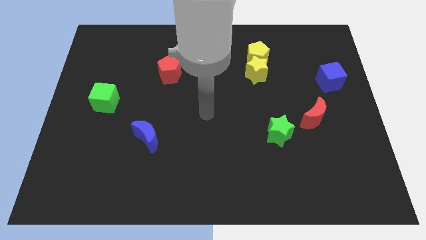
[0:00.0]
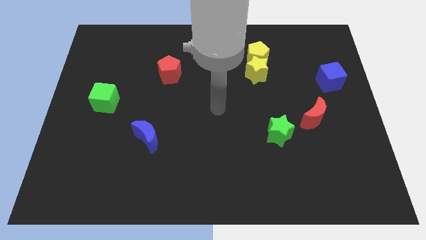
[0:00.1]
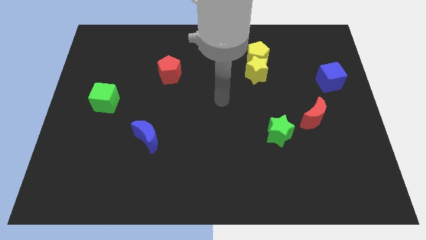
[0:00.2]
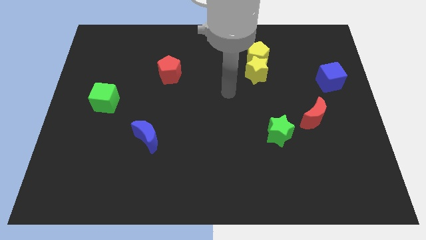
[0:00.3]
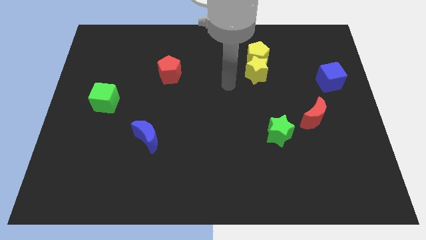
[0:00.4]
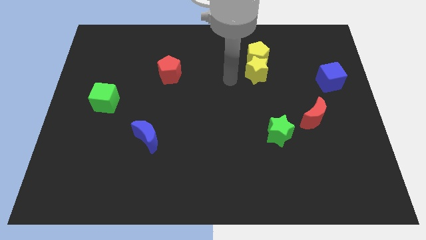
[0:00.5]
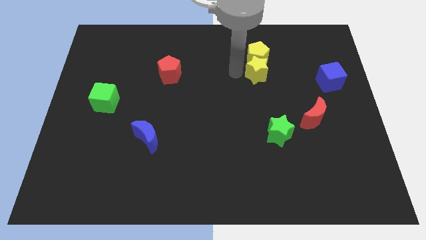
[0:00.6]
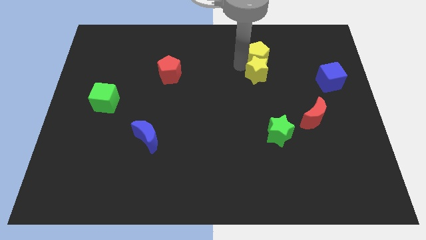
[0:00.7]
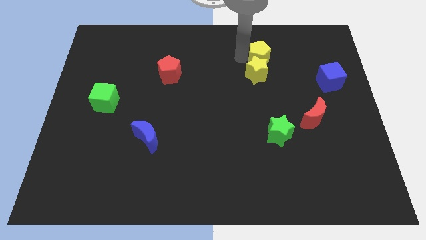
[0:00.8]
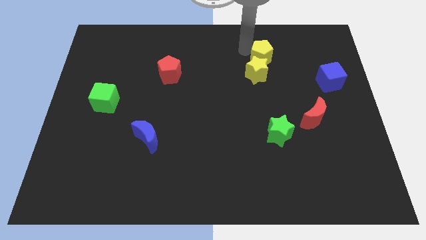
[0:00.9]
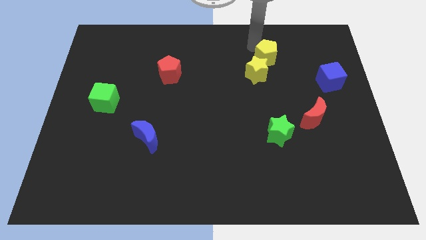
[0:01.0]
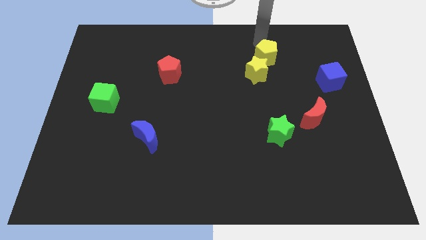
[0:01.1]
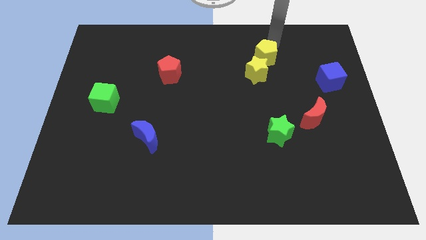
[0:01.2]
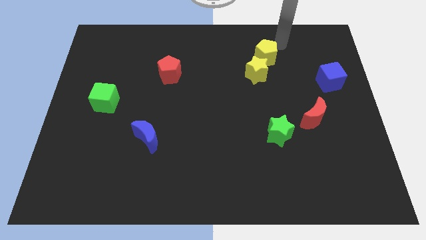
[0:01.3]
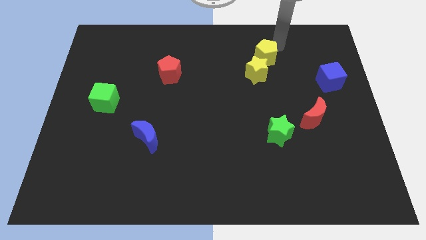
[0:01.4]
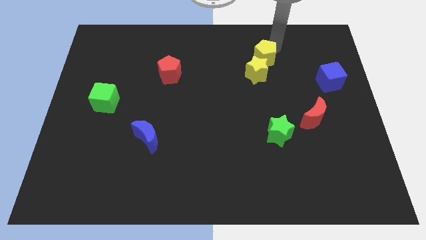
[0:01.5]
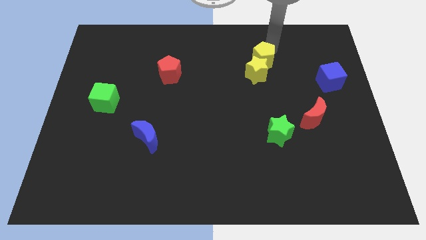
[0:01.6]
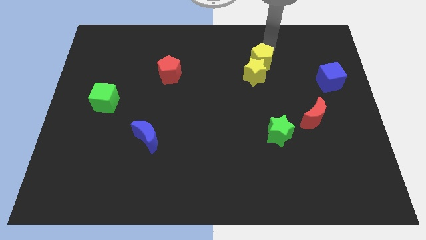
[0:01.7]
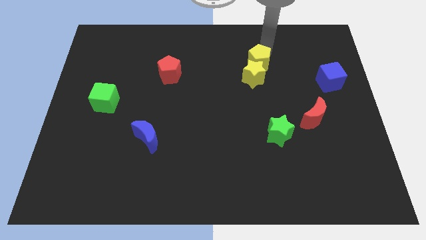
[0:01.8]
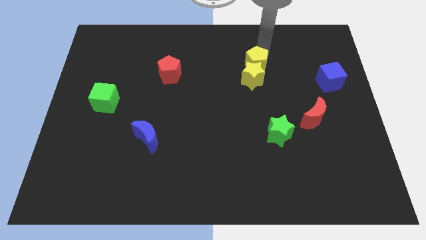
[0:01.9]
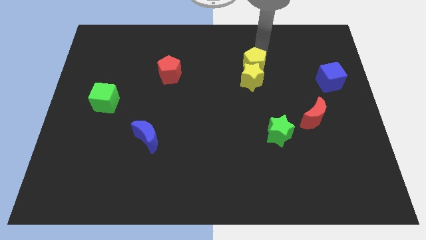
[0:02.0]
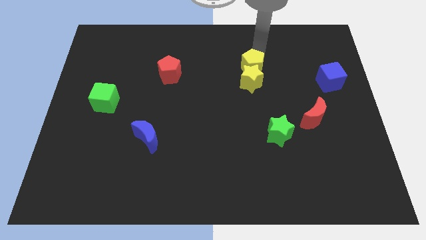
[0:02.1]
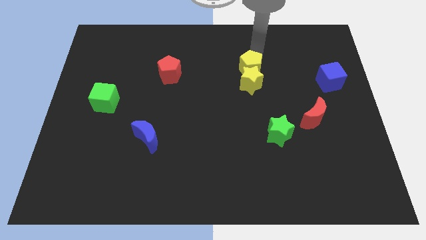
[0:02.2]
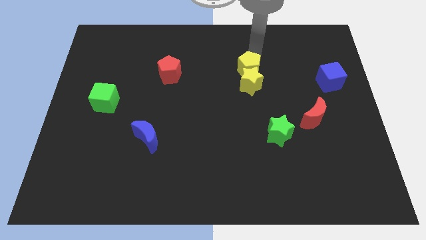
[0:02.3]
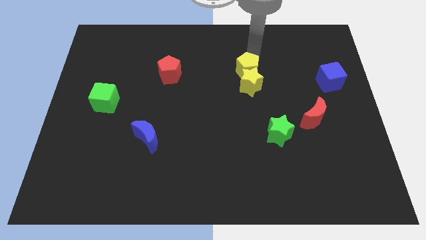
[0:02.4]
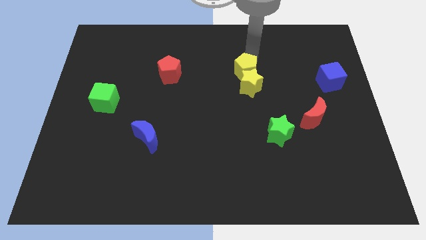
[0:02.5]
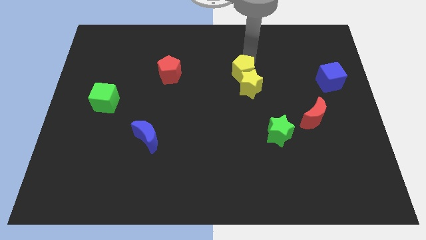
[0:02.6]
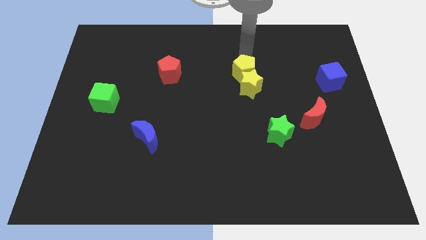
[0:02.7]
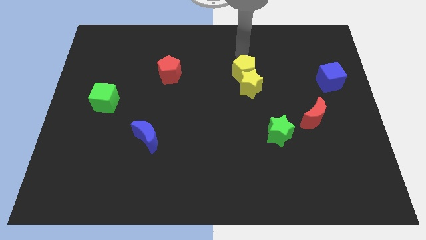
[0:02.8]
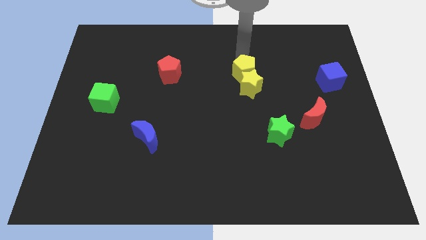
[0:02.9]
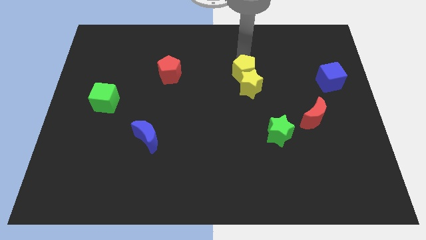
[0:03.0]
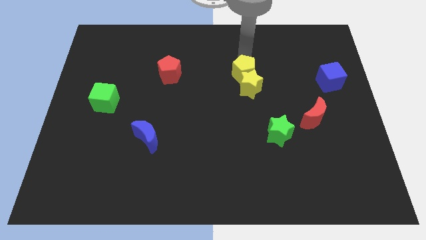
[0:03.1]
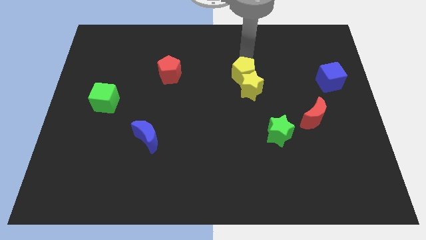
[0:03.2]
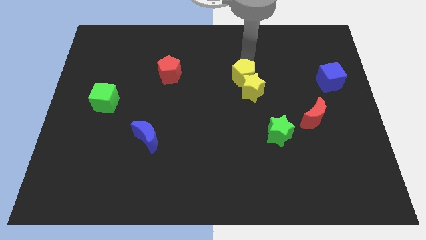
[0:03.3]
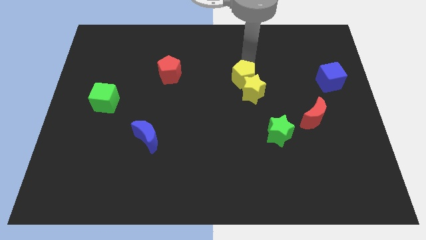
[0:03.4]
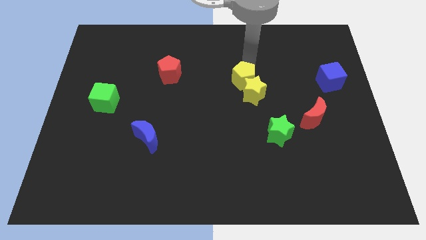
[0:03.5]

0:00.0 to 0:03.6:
push the yellow pentagon downwards a bit

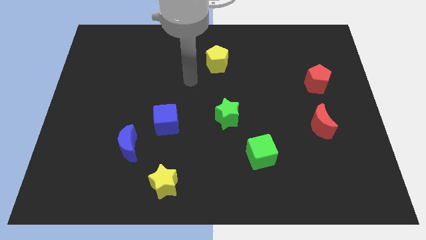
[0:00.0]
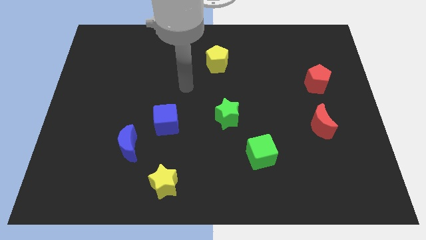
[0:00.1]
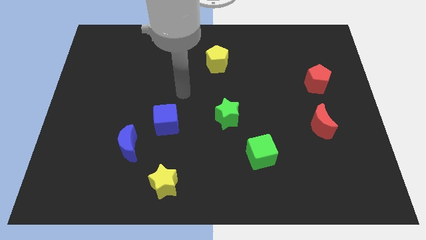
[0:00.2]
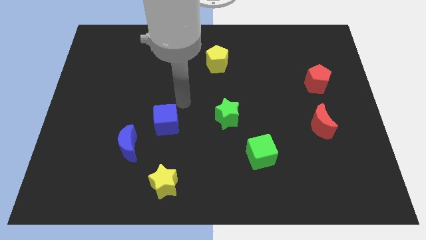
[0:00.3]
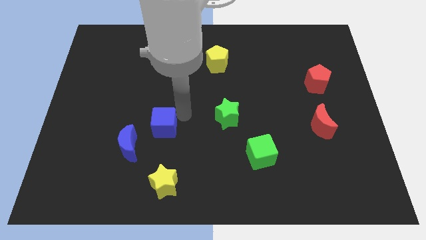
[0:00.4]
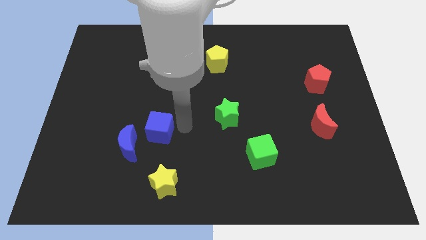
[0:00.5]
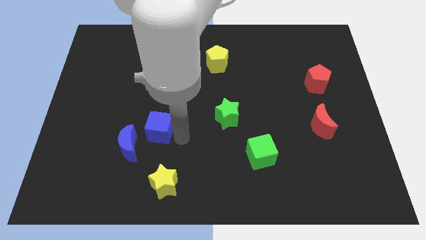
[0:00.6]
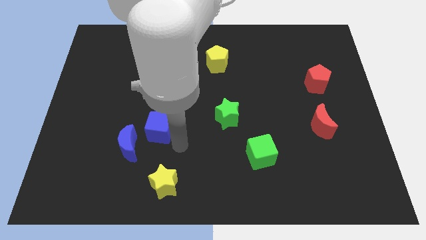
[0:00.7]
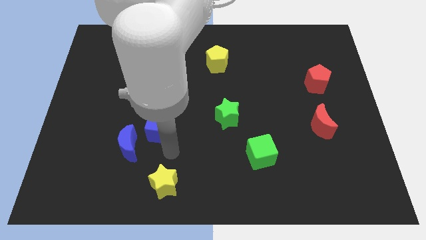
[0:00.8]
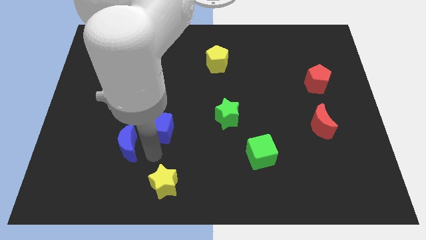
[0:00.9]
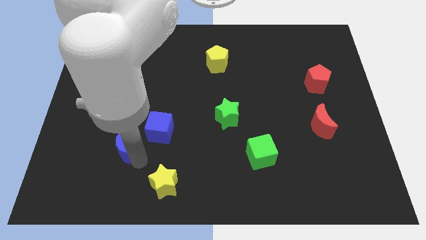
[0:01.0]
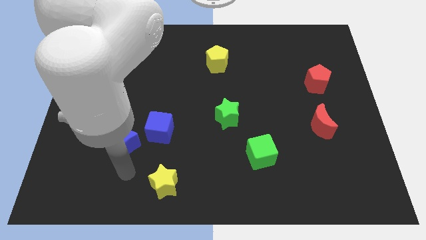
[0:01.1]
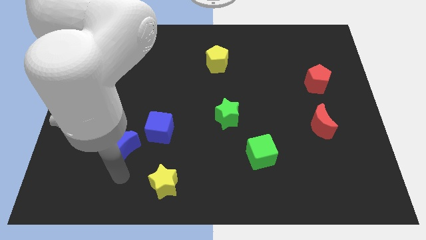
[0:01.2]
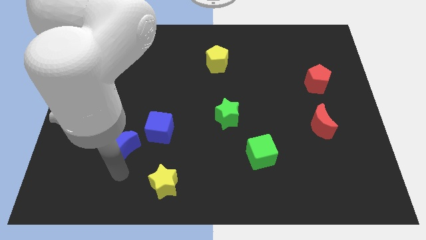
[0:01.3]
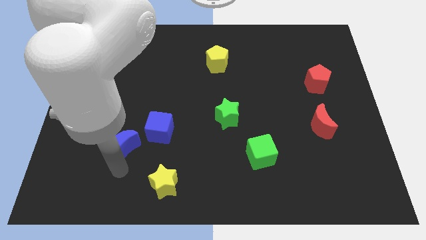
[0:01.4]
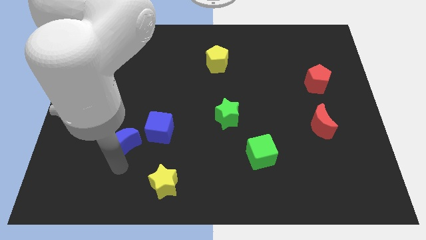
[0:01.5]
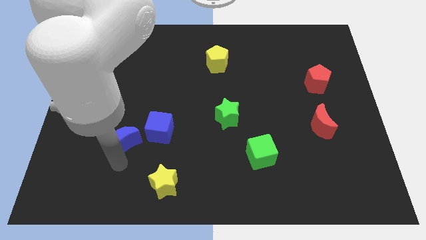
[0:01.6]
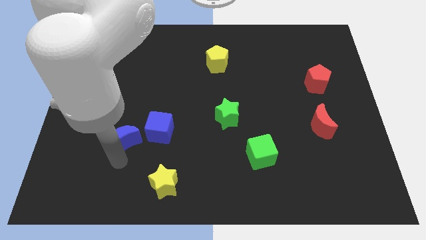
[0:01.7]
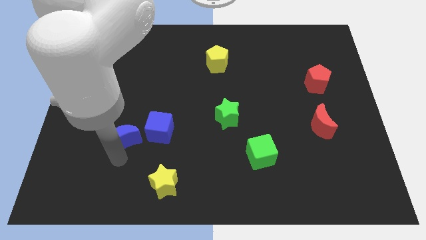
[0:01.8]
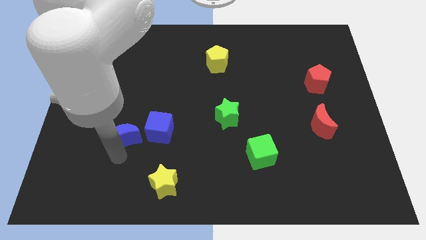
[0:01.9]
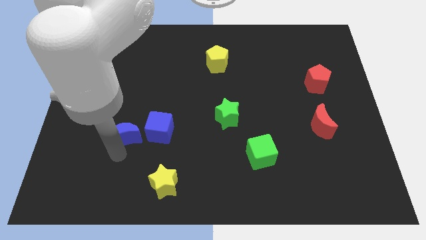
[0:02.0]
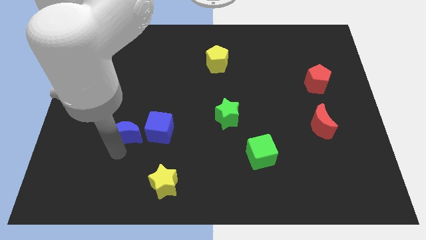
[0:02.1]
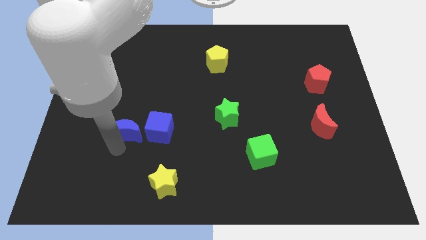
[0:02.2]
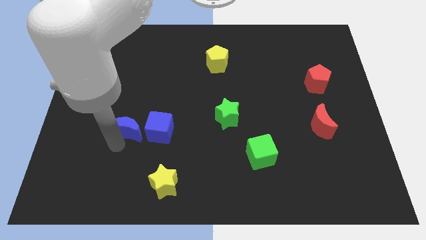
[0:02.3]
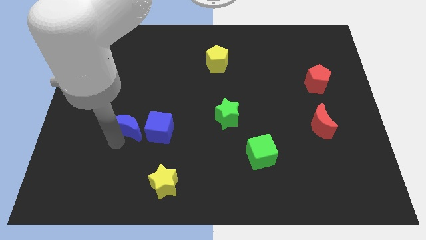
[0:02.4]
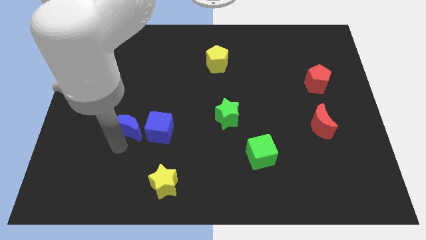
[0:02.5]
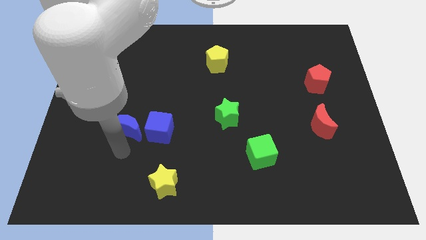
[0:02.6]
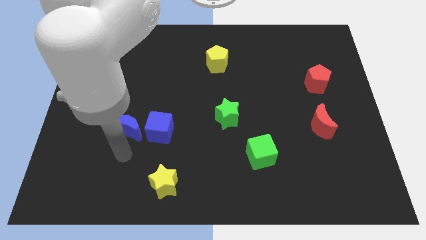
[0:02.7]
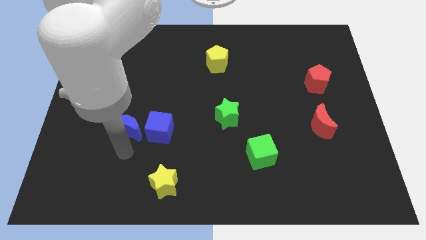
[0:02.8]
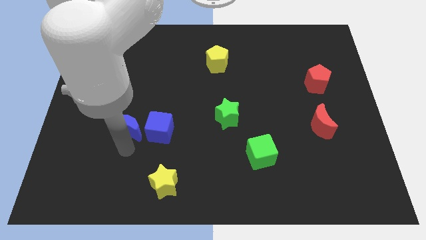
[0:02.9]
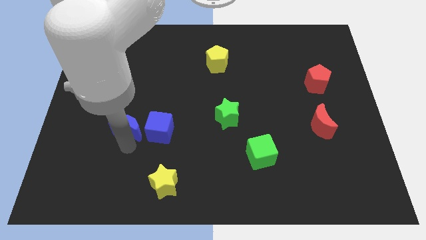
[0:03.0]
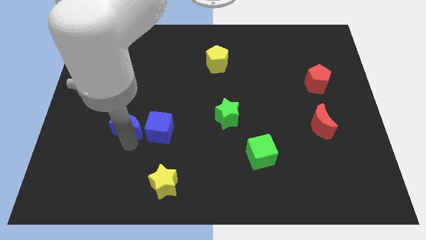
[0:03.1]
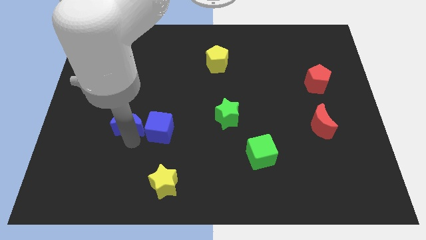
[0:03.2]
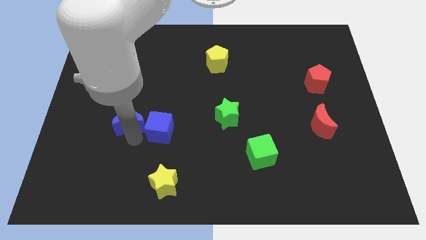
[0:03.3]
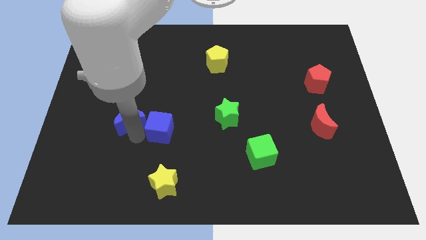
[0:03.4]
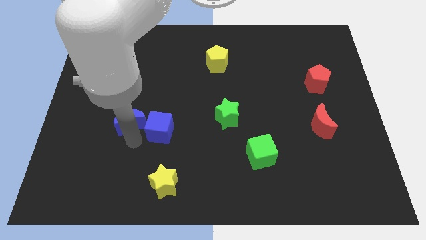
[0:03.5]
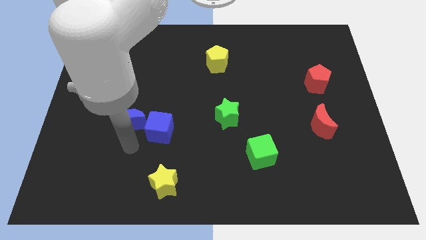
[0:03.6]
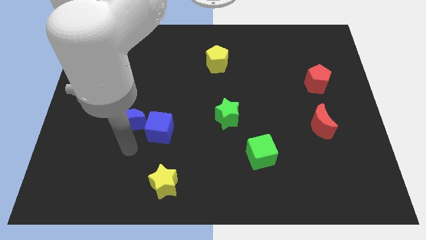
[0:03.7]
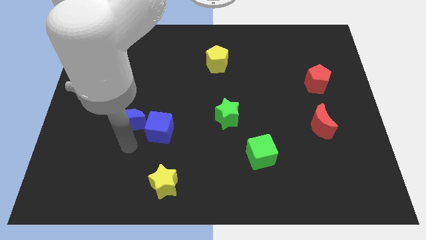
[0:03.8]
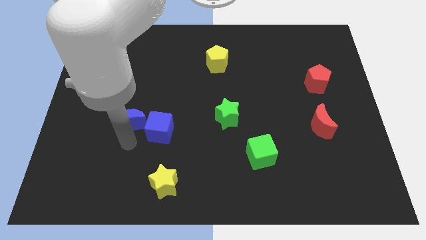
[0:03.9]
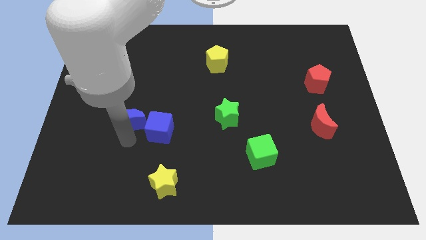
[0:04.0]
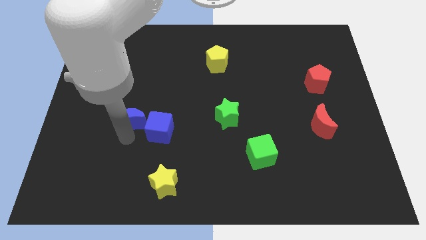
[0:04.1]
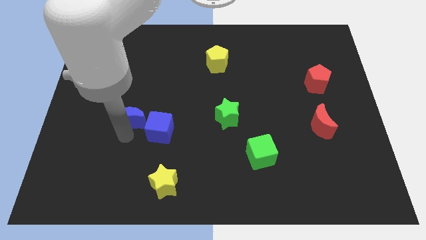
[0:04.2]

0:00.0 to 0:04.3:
slide the blue moon a little upwards
